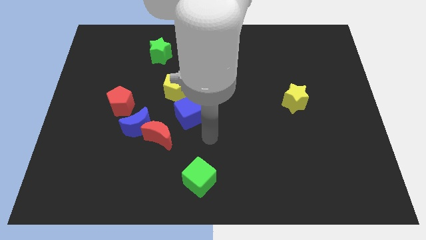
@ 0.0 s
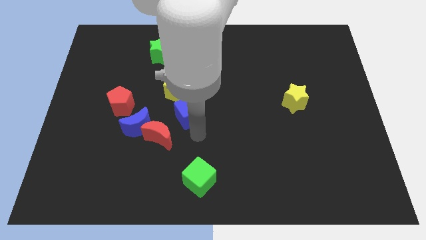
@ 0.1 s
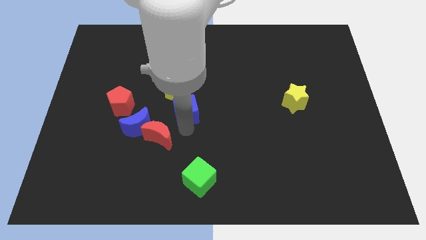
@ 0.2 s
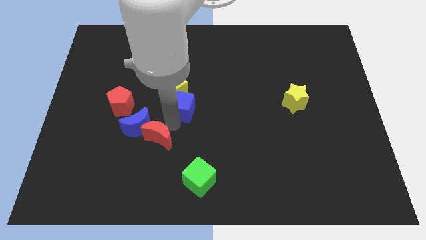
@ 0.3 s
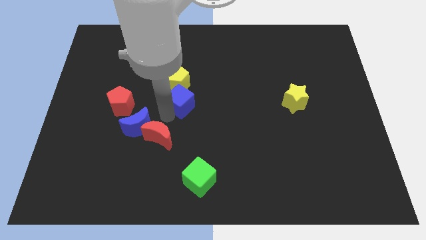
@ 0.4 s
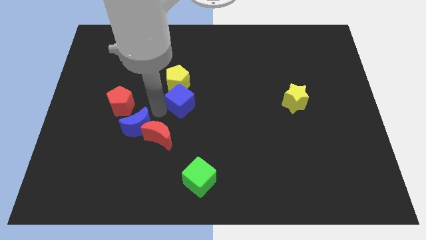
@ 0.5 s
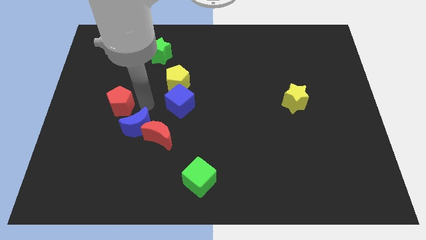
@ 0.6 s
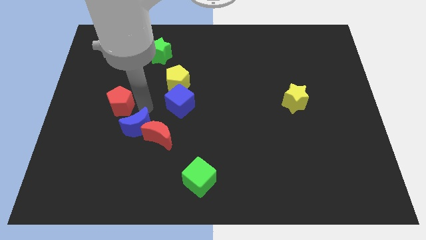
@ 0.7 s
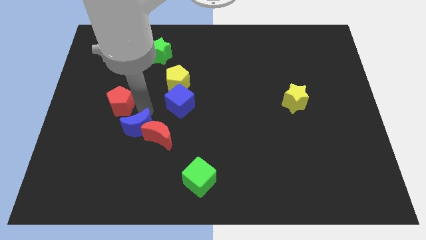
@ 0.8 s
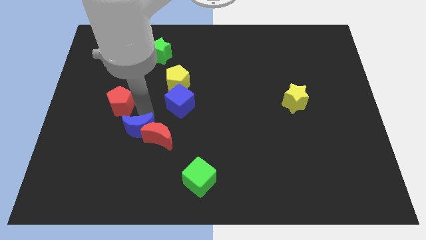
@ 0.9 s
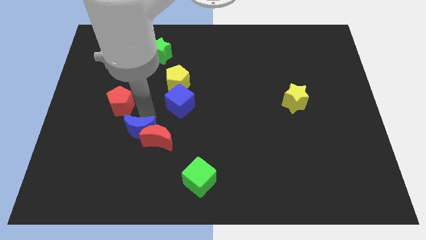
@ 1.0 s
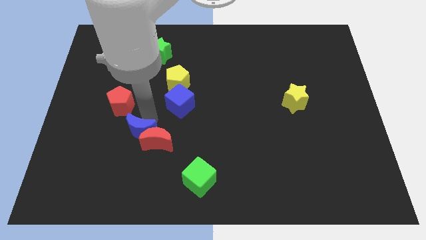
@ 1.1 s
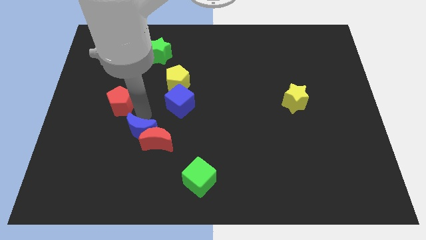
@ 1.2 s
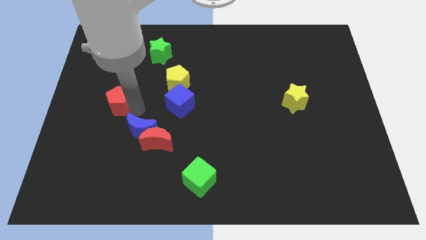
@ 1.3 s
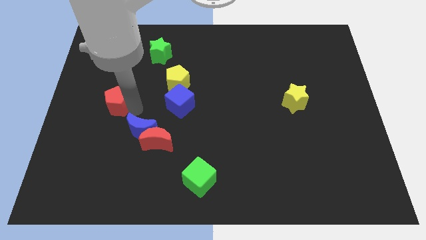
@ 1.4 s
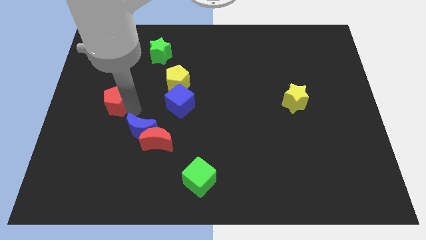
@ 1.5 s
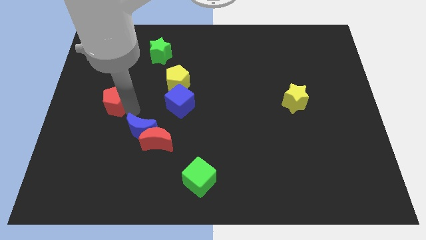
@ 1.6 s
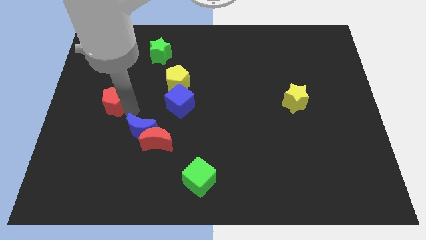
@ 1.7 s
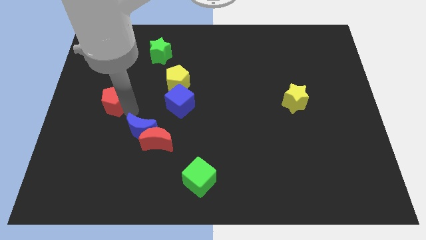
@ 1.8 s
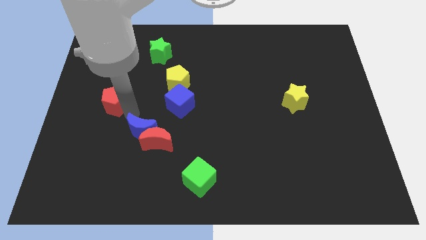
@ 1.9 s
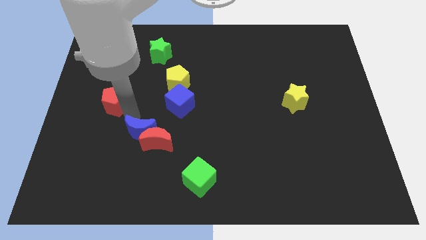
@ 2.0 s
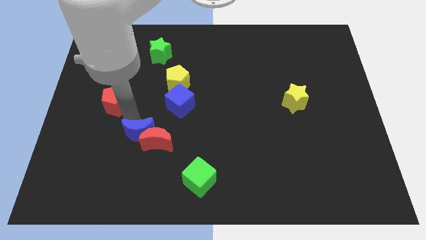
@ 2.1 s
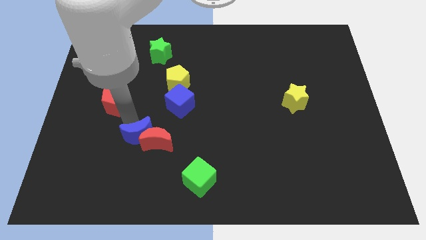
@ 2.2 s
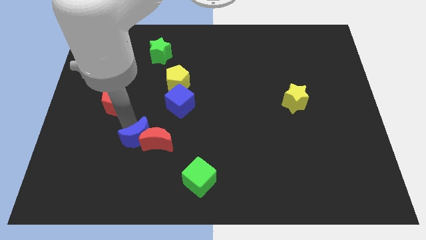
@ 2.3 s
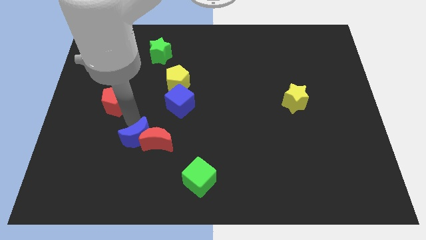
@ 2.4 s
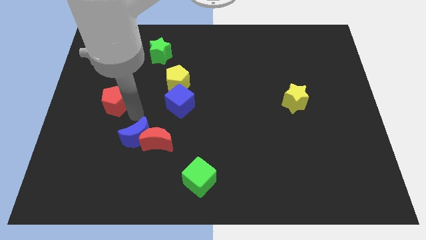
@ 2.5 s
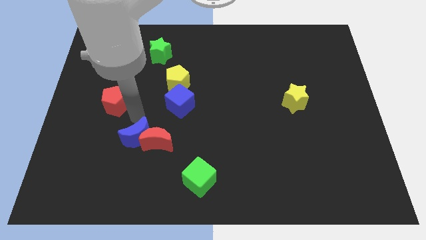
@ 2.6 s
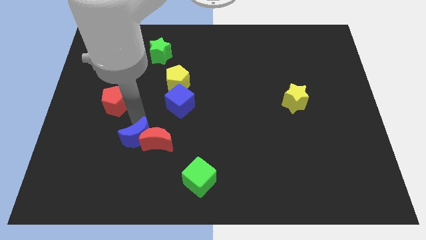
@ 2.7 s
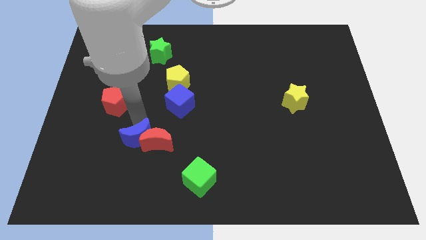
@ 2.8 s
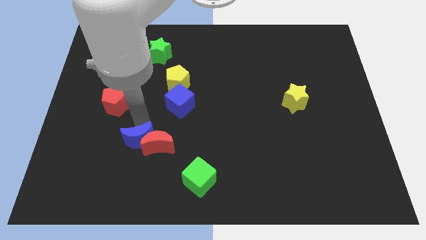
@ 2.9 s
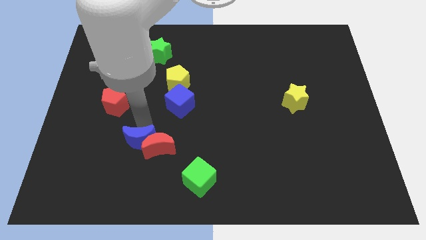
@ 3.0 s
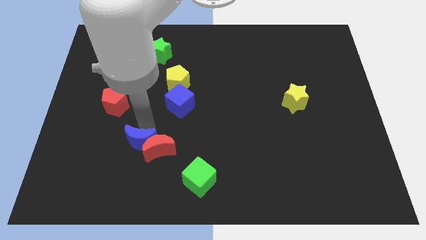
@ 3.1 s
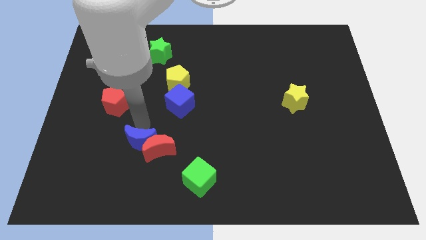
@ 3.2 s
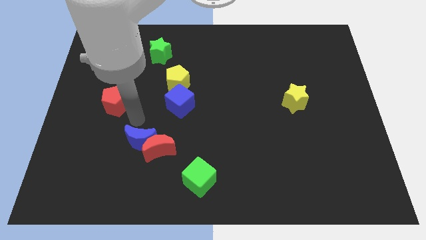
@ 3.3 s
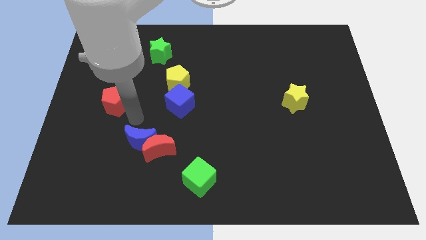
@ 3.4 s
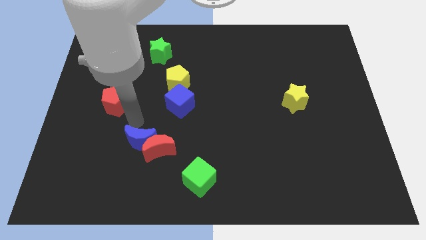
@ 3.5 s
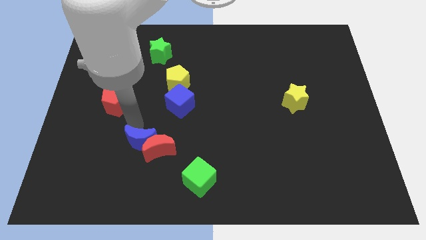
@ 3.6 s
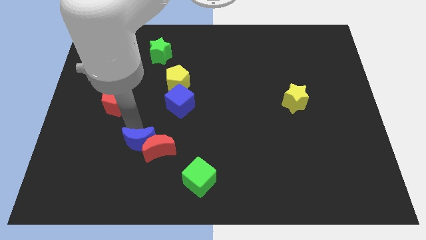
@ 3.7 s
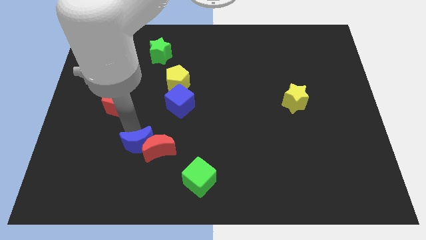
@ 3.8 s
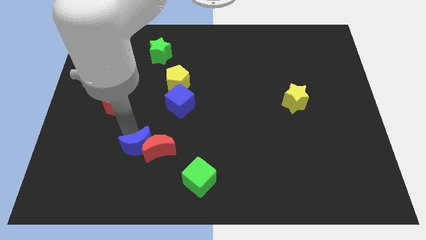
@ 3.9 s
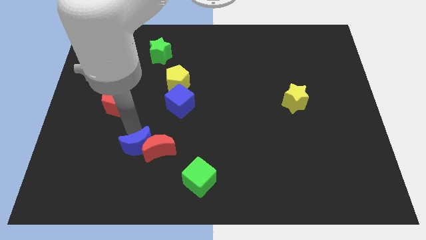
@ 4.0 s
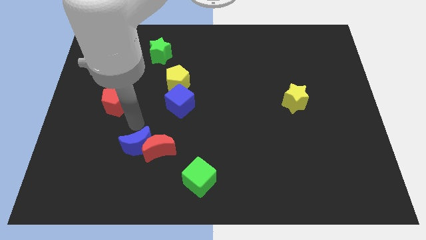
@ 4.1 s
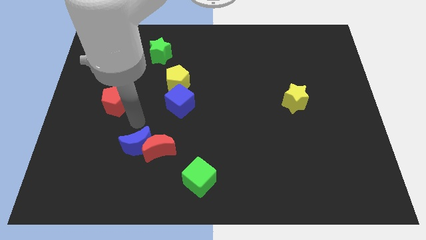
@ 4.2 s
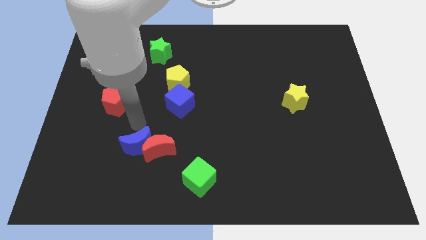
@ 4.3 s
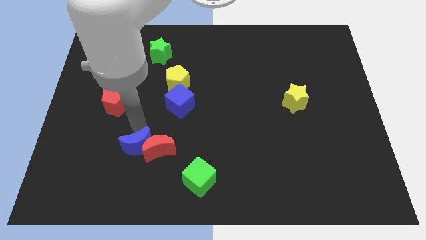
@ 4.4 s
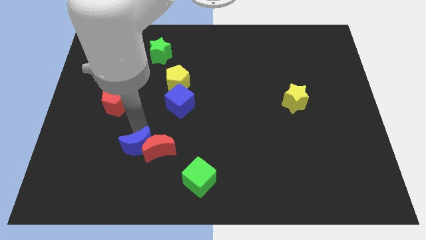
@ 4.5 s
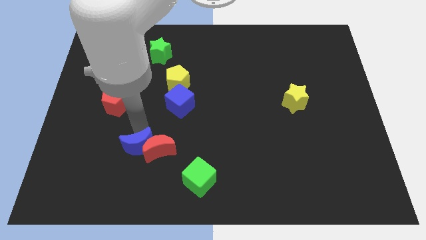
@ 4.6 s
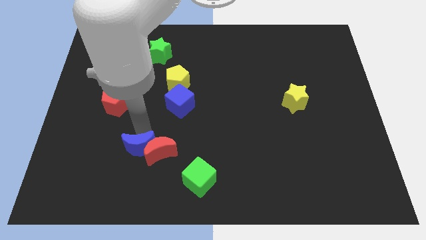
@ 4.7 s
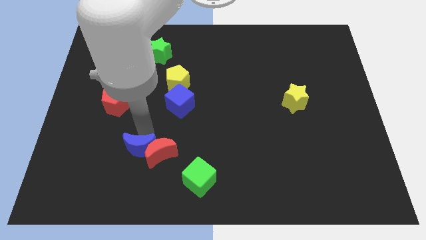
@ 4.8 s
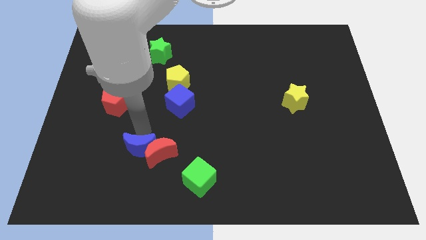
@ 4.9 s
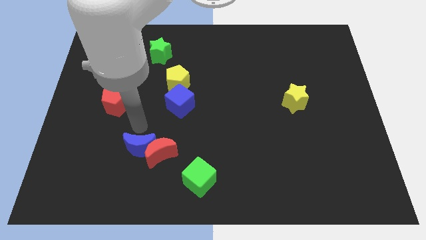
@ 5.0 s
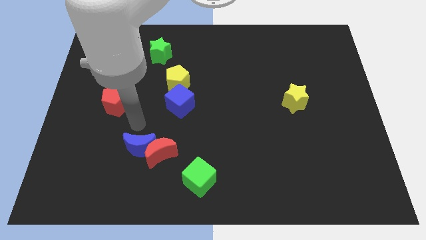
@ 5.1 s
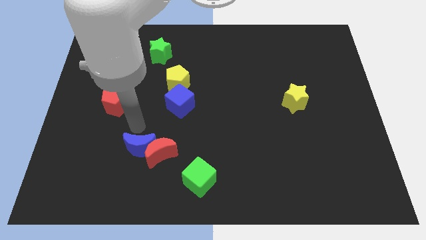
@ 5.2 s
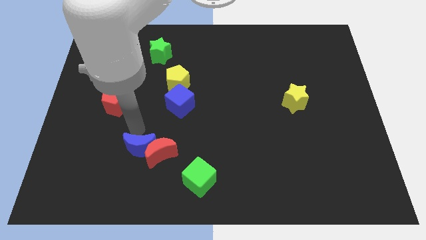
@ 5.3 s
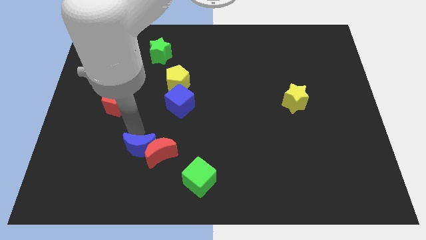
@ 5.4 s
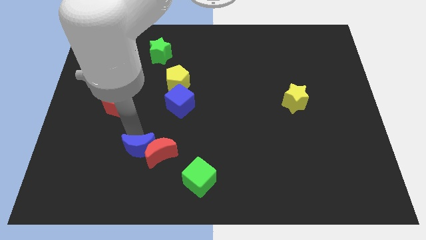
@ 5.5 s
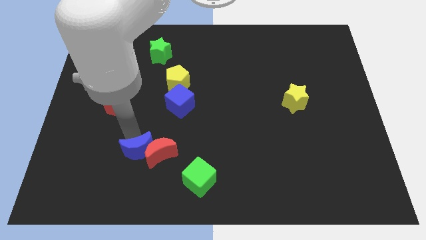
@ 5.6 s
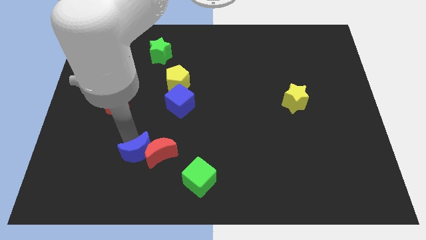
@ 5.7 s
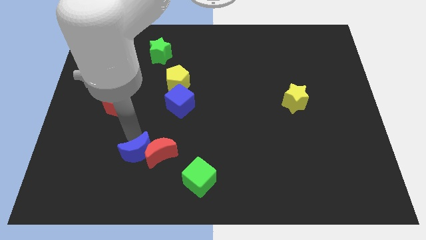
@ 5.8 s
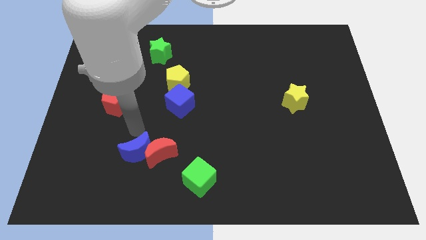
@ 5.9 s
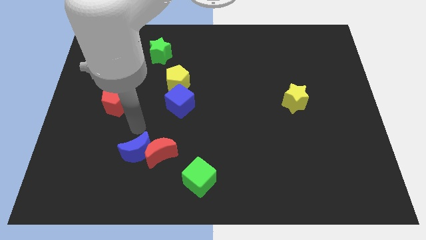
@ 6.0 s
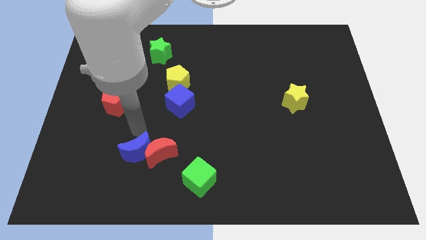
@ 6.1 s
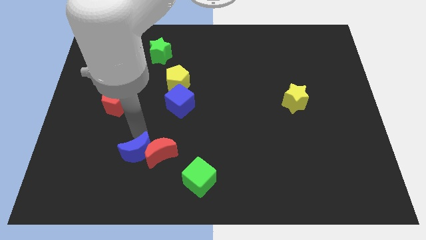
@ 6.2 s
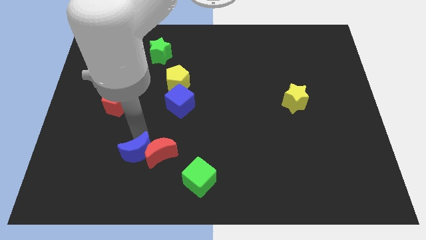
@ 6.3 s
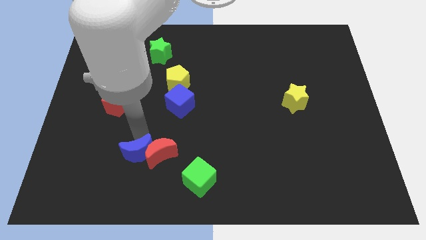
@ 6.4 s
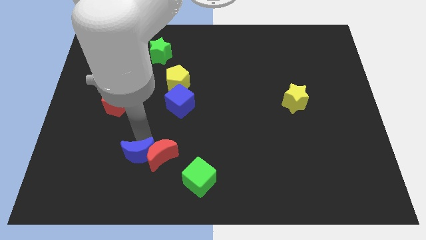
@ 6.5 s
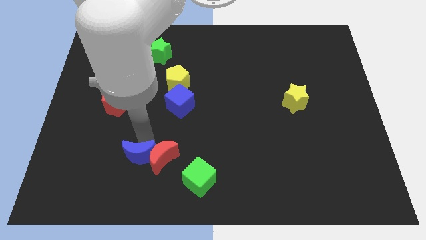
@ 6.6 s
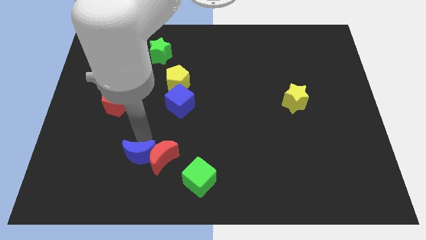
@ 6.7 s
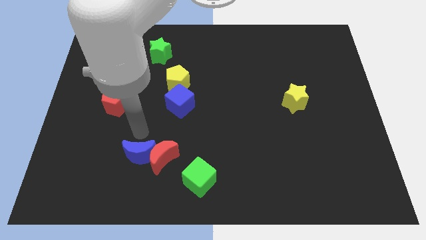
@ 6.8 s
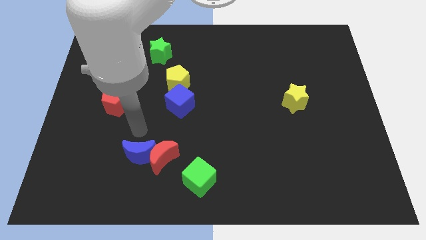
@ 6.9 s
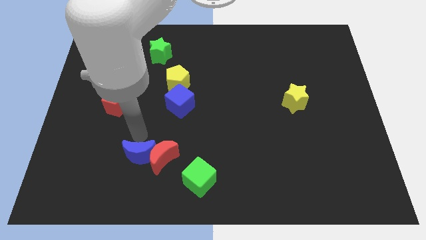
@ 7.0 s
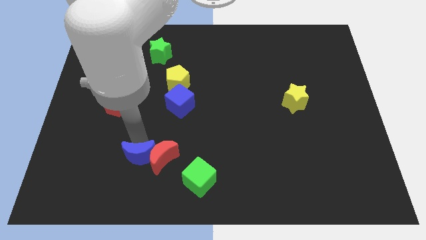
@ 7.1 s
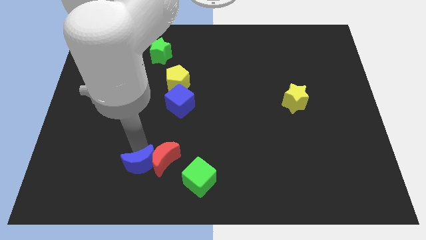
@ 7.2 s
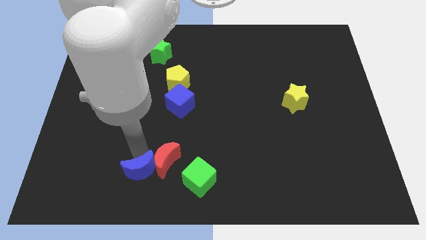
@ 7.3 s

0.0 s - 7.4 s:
separate the blue moon from the red moon and red pentagon

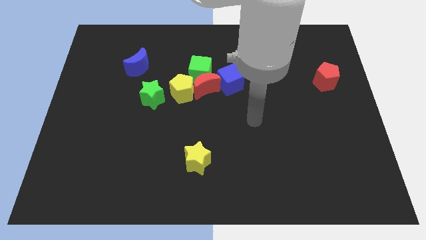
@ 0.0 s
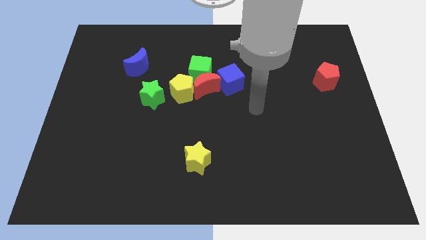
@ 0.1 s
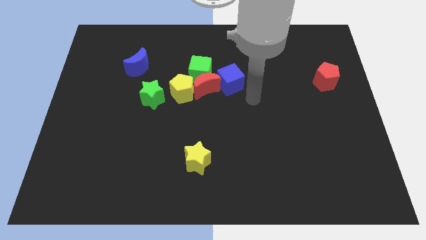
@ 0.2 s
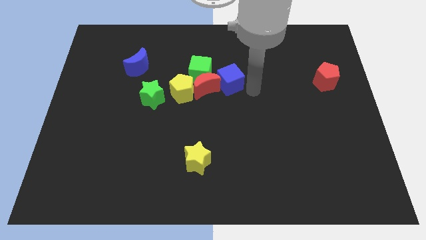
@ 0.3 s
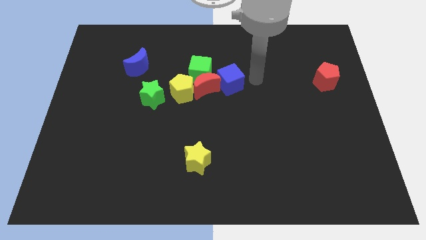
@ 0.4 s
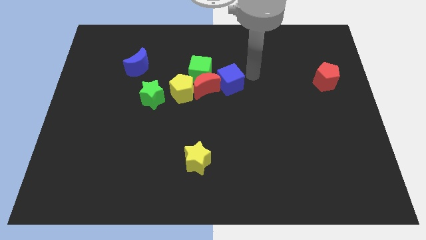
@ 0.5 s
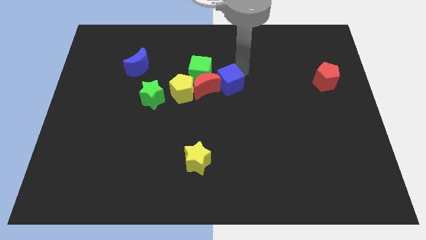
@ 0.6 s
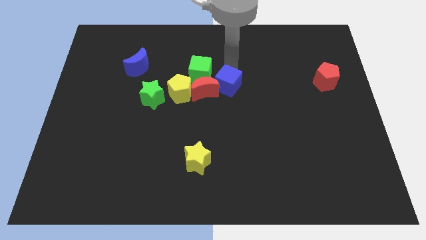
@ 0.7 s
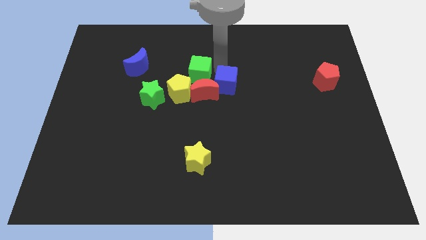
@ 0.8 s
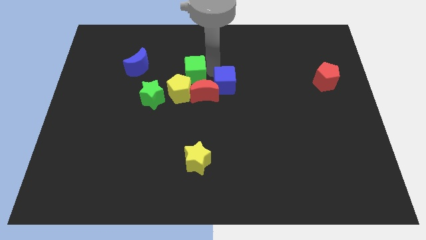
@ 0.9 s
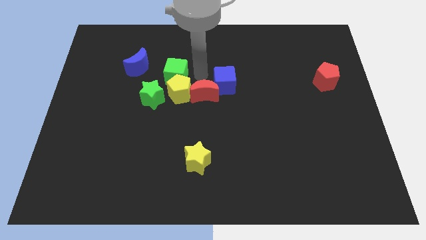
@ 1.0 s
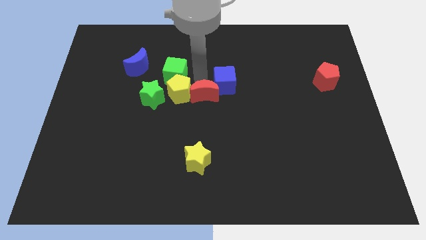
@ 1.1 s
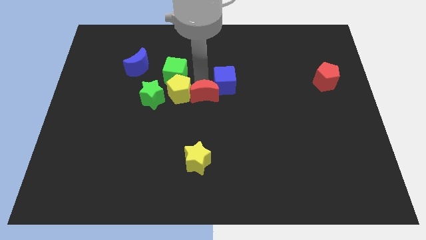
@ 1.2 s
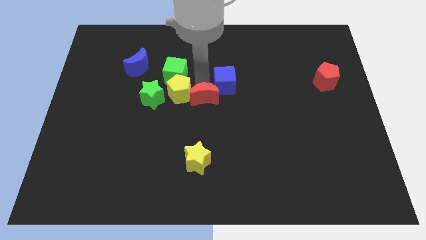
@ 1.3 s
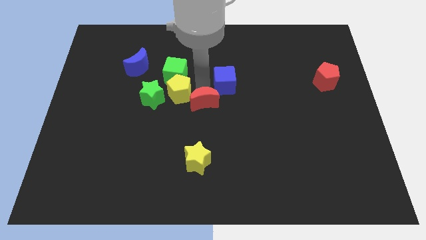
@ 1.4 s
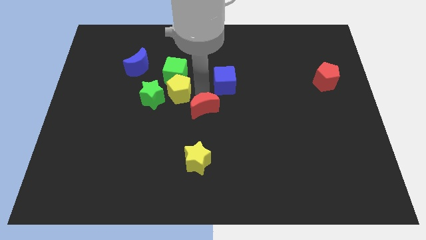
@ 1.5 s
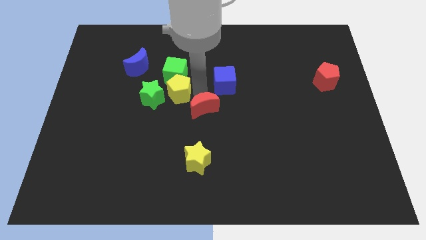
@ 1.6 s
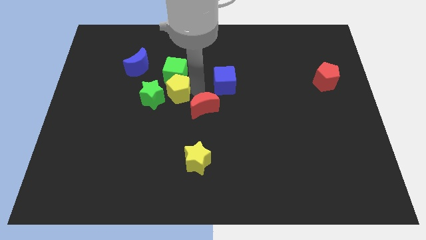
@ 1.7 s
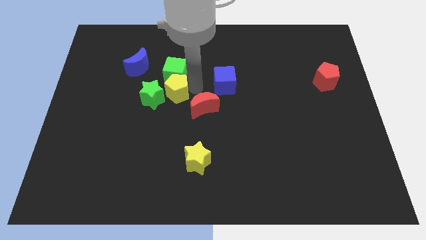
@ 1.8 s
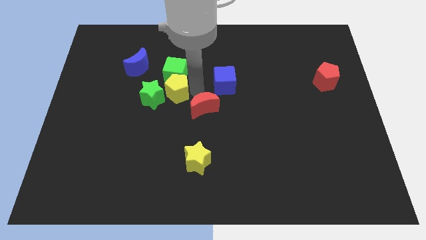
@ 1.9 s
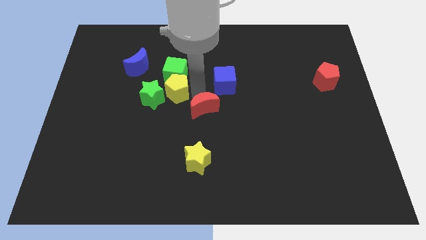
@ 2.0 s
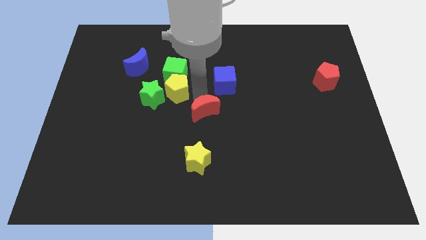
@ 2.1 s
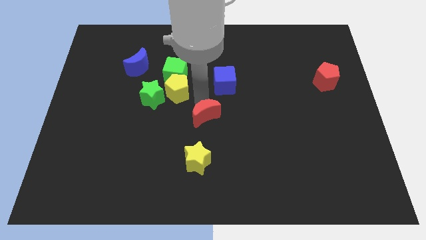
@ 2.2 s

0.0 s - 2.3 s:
move the red moon away from the green cube, yellow pentagon, and blue cube
